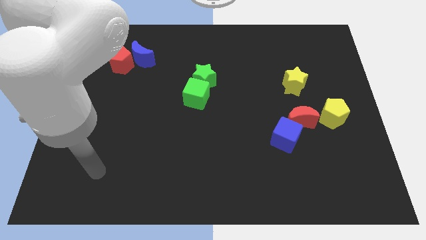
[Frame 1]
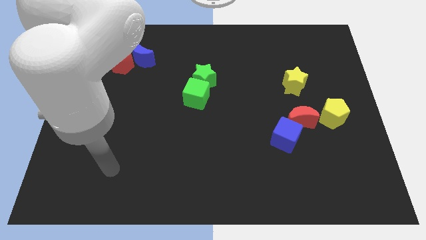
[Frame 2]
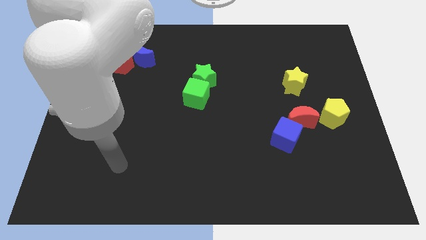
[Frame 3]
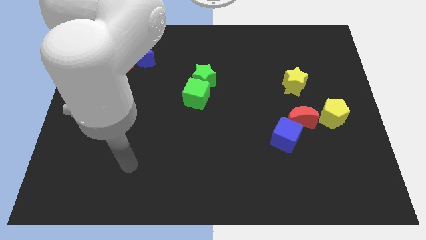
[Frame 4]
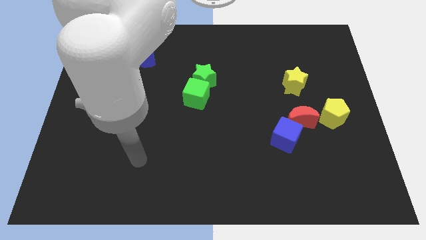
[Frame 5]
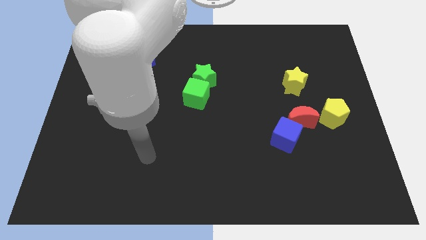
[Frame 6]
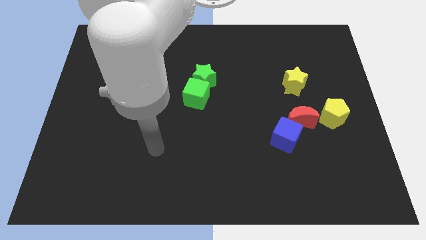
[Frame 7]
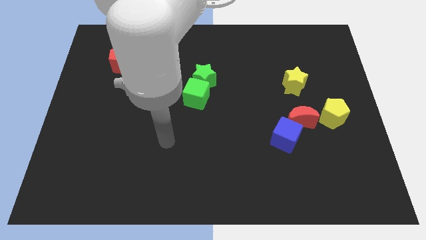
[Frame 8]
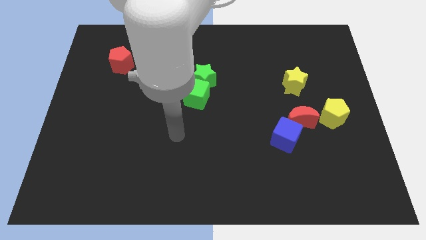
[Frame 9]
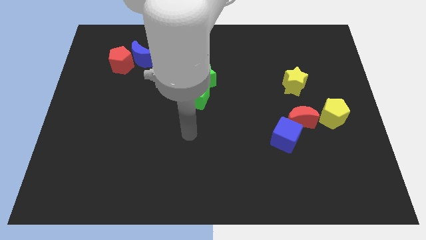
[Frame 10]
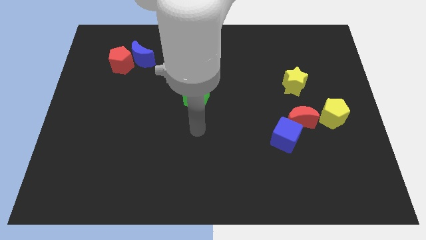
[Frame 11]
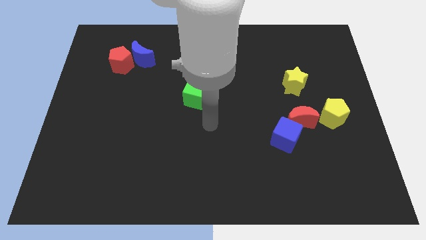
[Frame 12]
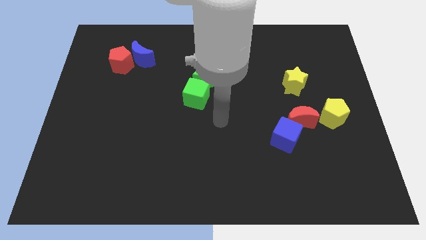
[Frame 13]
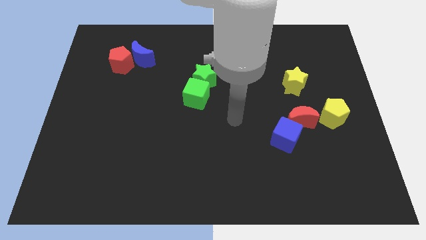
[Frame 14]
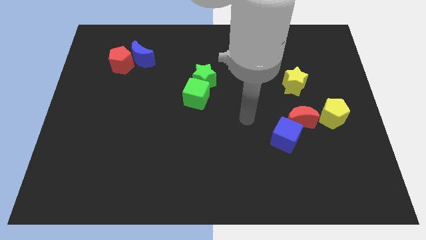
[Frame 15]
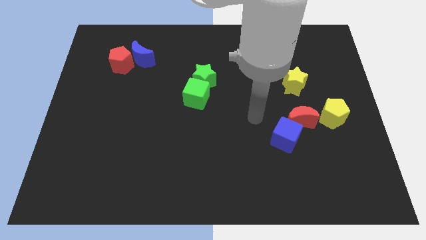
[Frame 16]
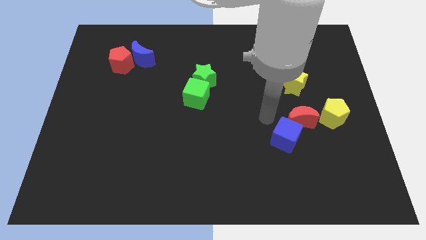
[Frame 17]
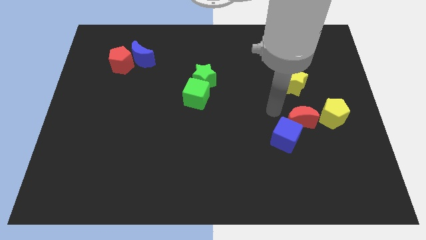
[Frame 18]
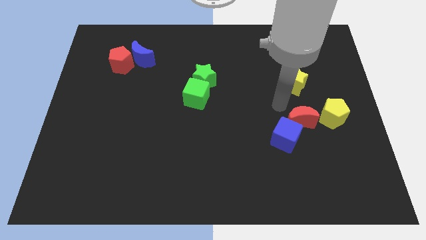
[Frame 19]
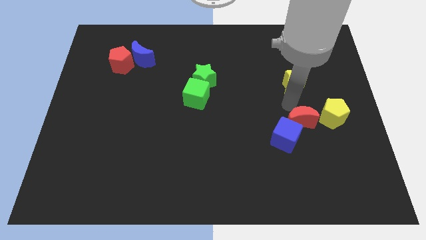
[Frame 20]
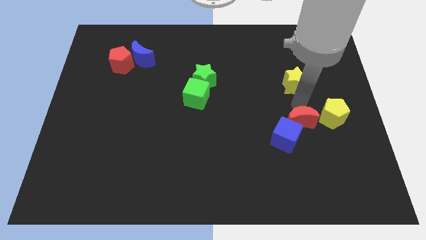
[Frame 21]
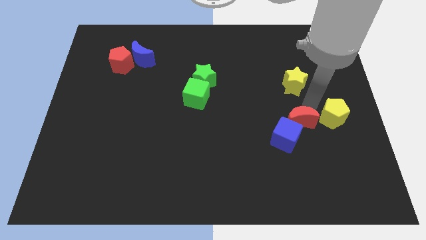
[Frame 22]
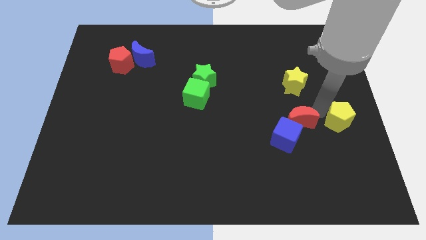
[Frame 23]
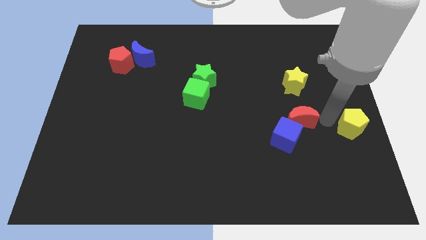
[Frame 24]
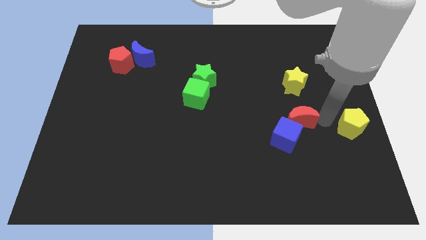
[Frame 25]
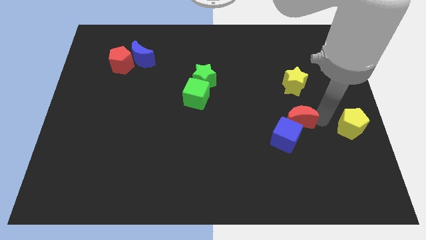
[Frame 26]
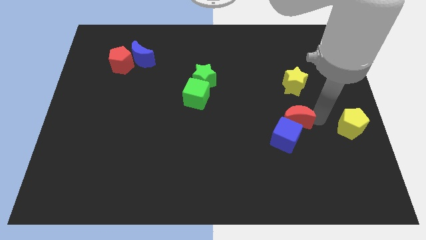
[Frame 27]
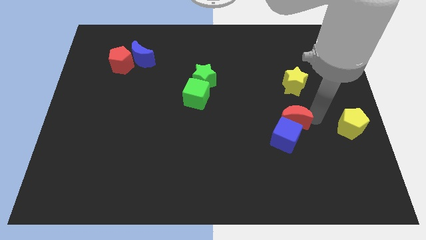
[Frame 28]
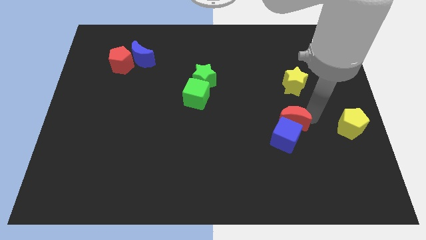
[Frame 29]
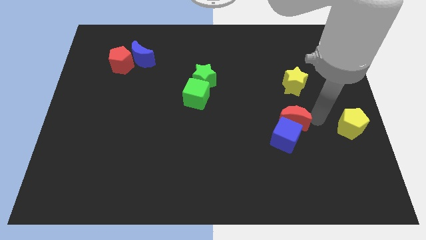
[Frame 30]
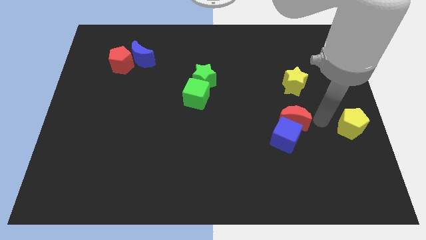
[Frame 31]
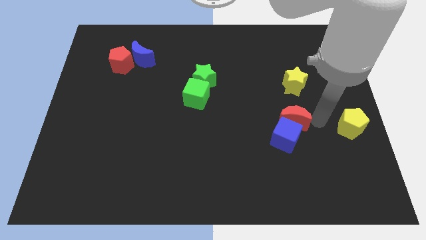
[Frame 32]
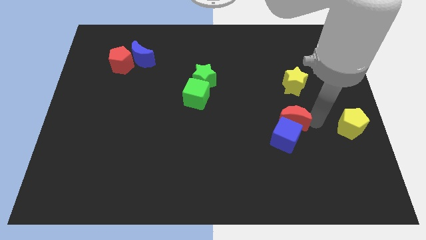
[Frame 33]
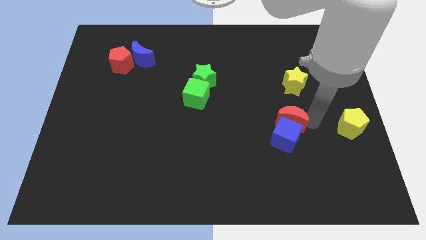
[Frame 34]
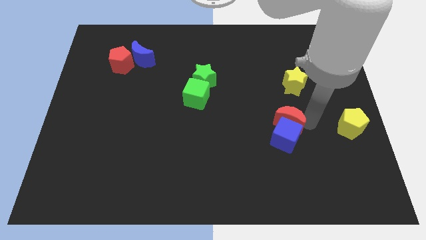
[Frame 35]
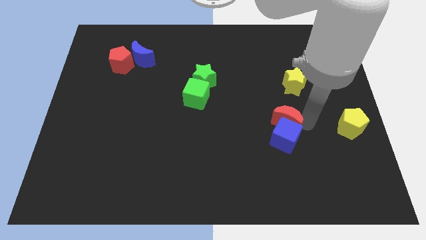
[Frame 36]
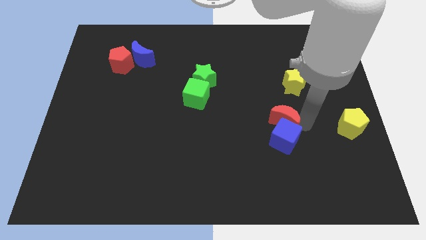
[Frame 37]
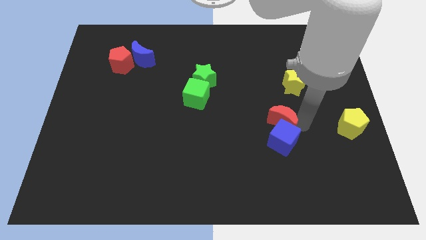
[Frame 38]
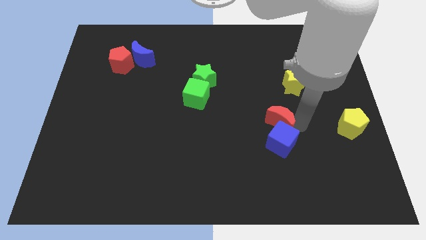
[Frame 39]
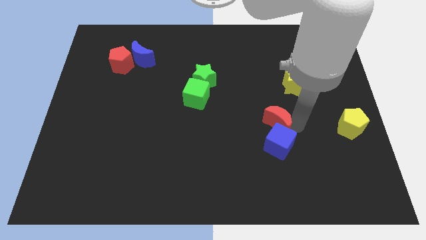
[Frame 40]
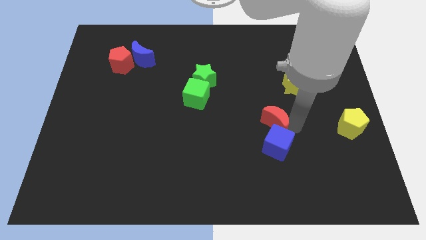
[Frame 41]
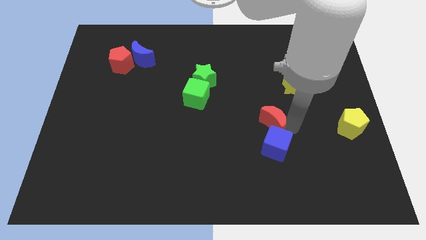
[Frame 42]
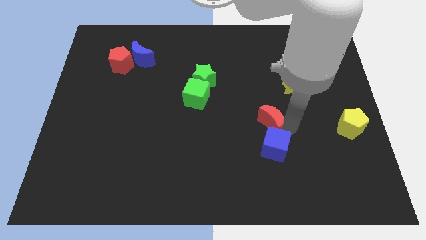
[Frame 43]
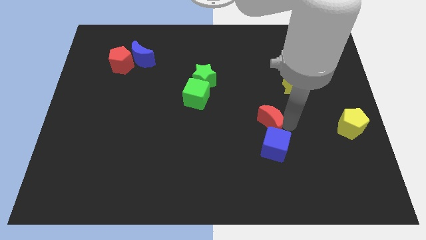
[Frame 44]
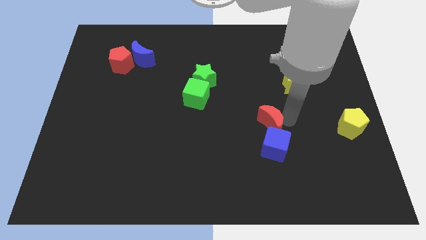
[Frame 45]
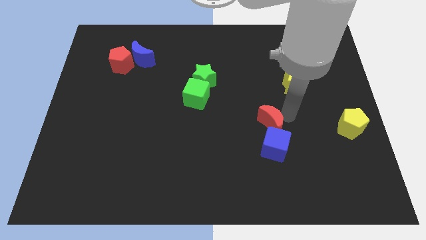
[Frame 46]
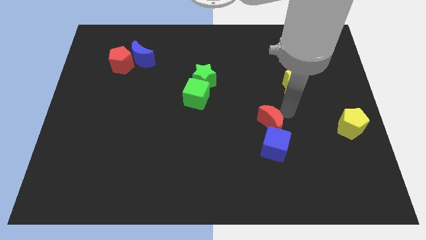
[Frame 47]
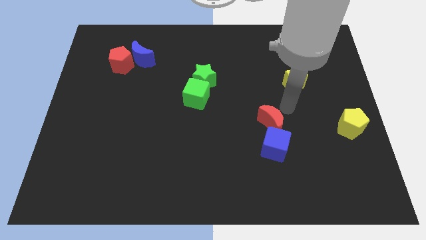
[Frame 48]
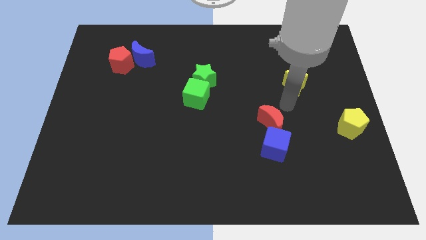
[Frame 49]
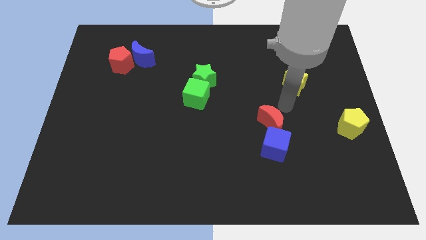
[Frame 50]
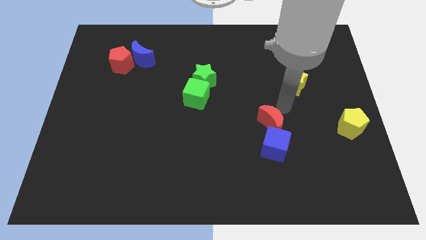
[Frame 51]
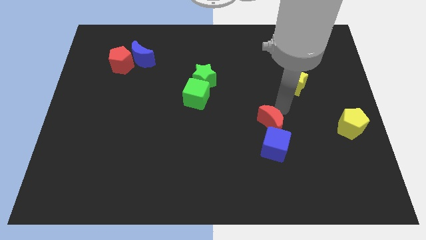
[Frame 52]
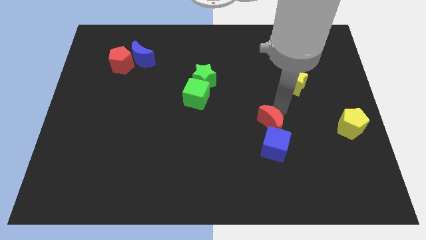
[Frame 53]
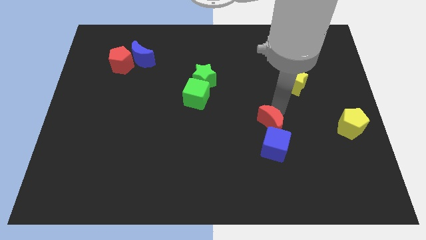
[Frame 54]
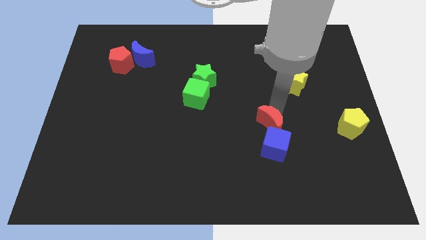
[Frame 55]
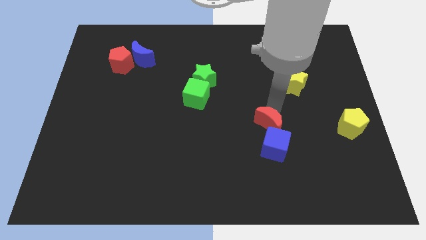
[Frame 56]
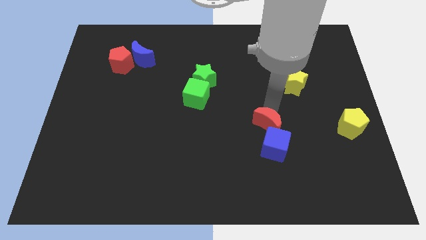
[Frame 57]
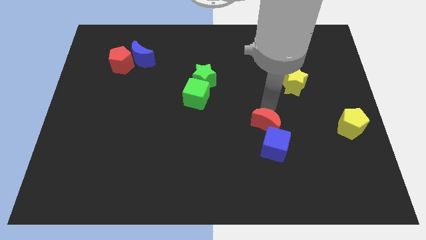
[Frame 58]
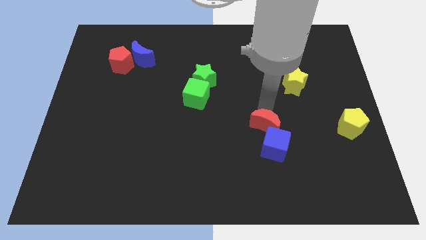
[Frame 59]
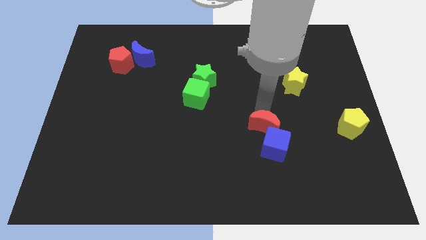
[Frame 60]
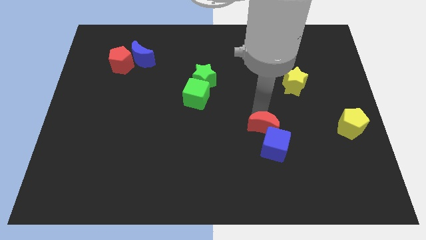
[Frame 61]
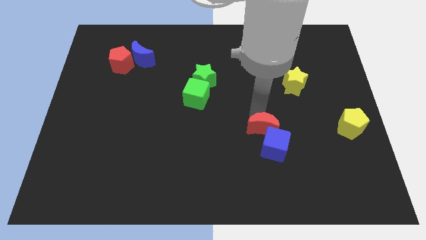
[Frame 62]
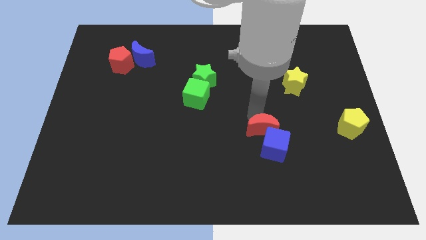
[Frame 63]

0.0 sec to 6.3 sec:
slightly move the red moon diagonally down and to the left

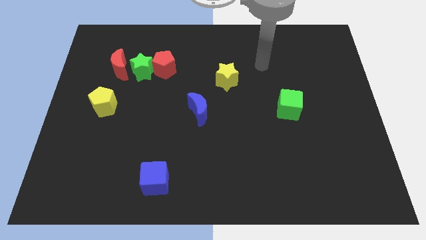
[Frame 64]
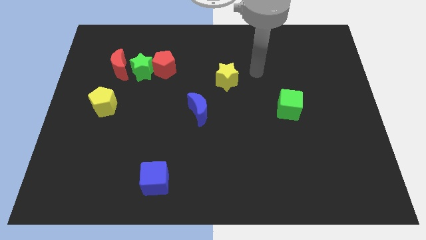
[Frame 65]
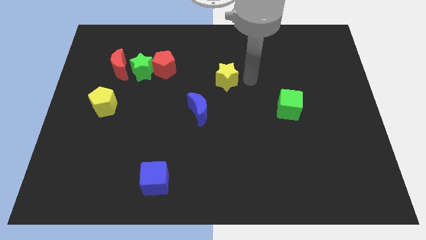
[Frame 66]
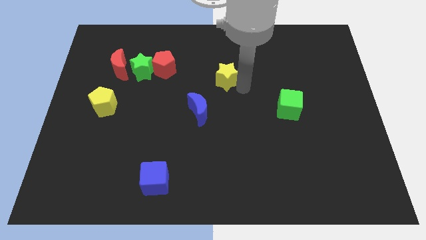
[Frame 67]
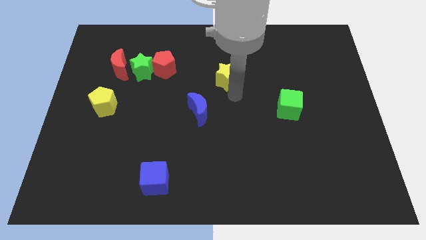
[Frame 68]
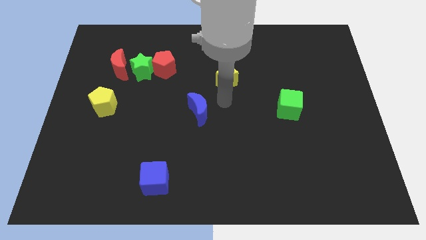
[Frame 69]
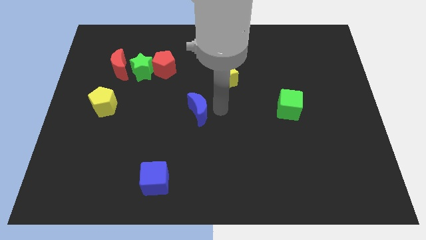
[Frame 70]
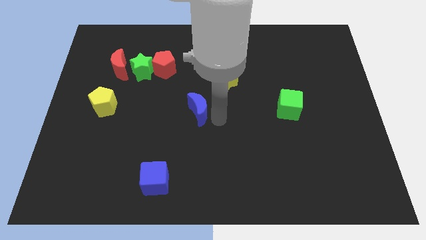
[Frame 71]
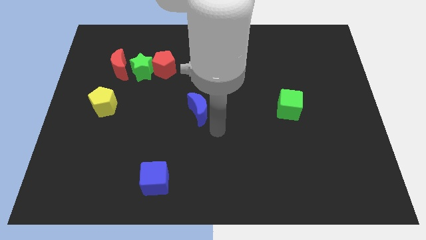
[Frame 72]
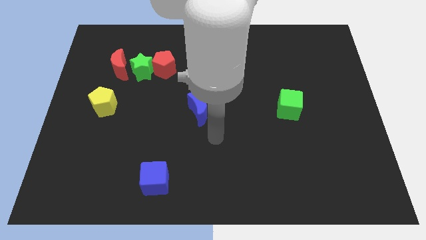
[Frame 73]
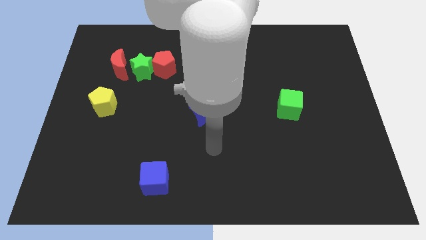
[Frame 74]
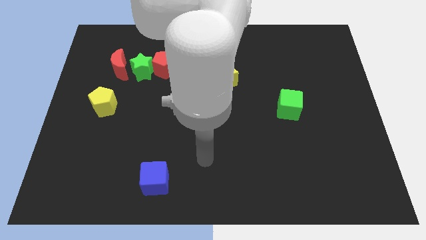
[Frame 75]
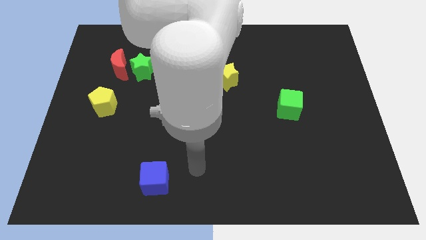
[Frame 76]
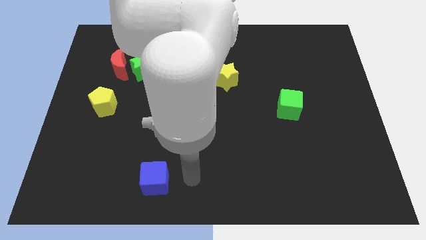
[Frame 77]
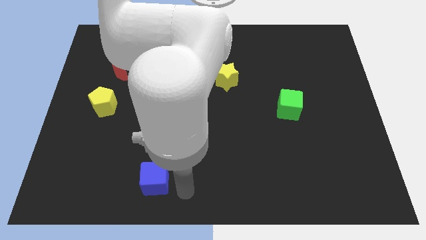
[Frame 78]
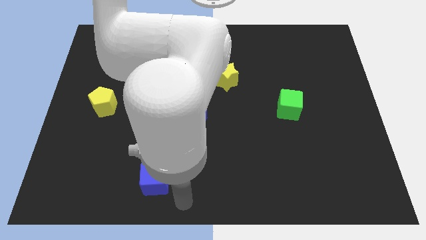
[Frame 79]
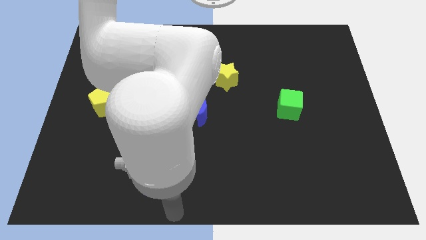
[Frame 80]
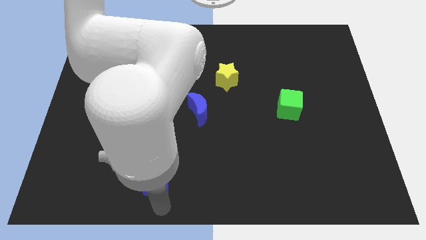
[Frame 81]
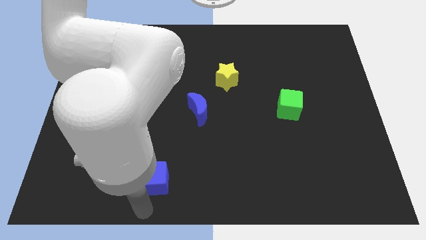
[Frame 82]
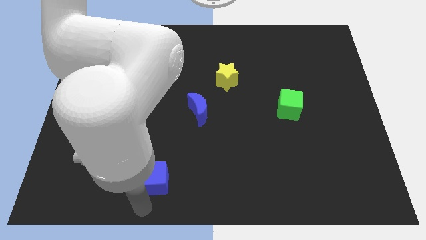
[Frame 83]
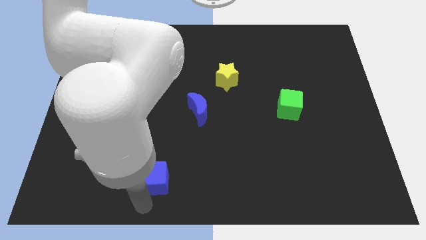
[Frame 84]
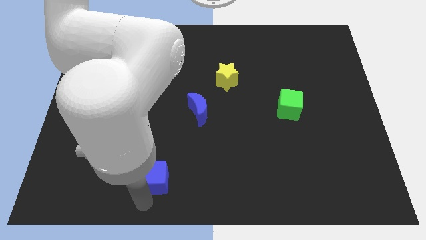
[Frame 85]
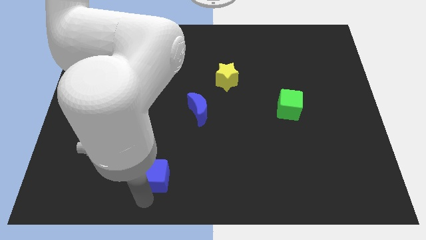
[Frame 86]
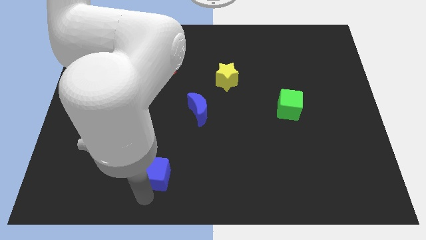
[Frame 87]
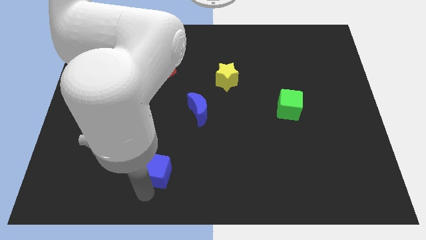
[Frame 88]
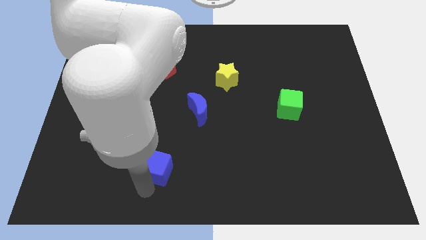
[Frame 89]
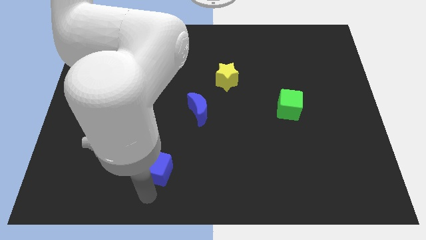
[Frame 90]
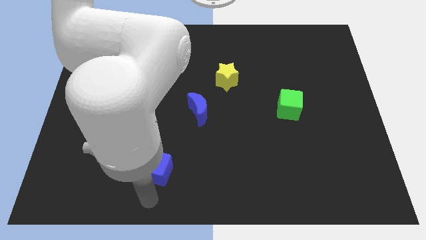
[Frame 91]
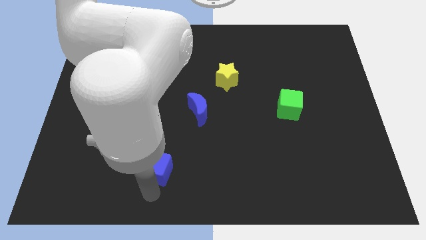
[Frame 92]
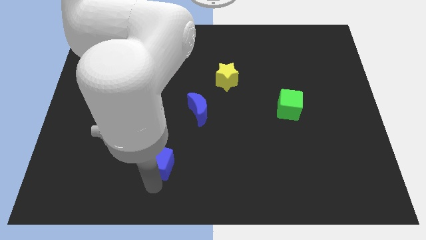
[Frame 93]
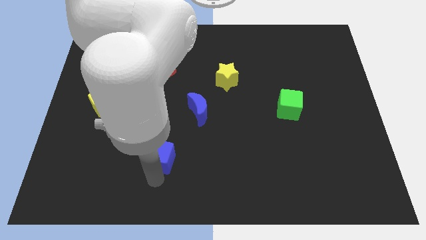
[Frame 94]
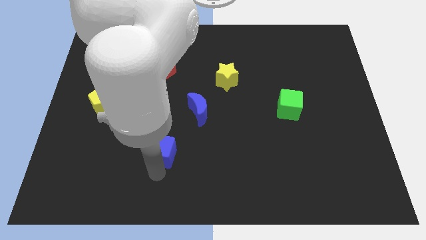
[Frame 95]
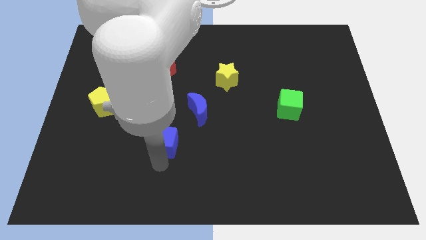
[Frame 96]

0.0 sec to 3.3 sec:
slightly move the blue cube upwards
